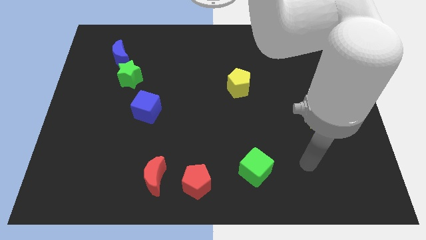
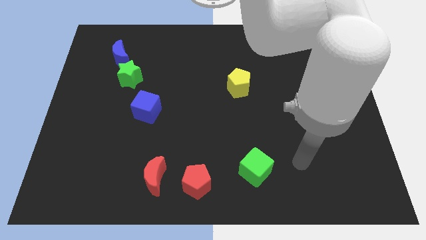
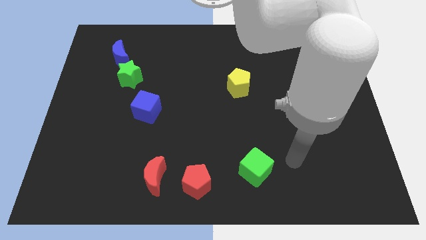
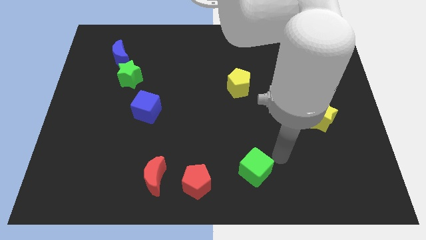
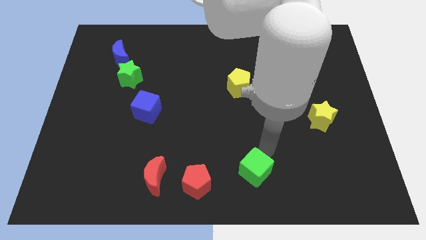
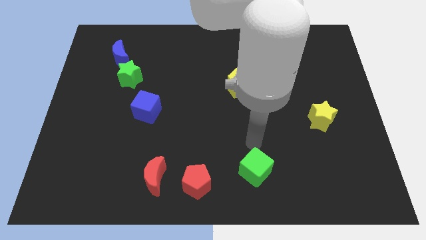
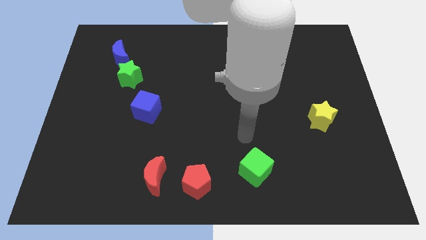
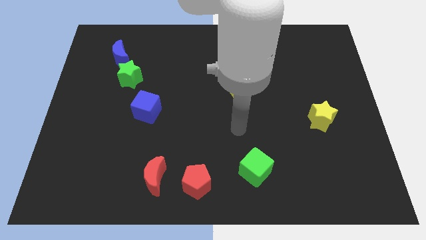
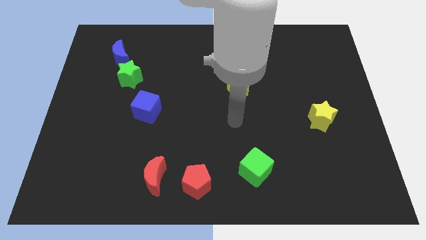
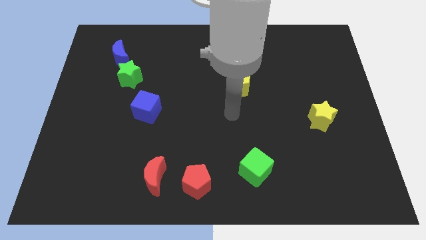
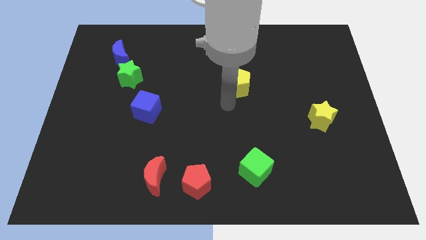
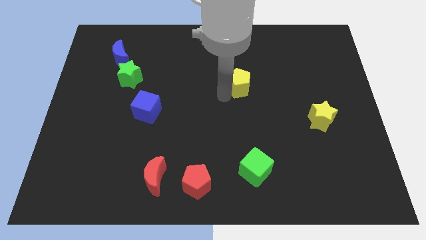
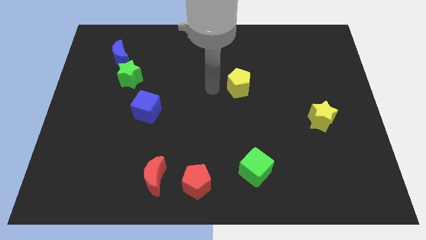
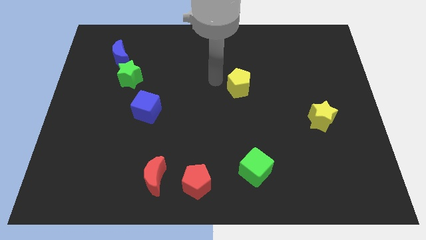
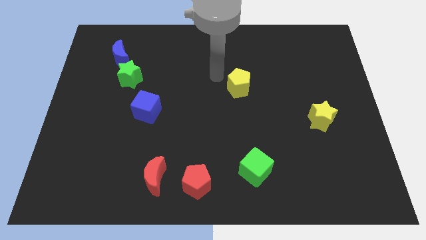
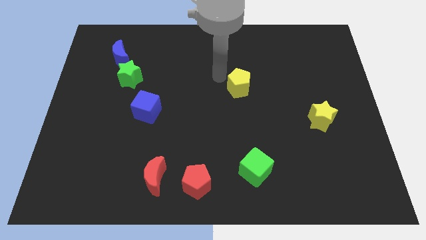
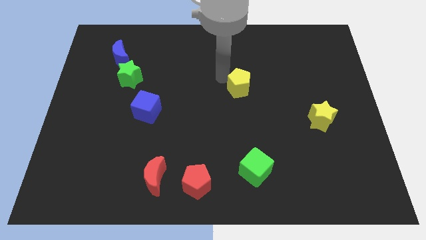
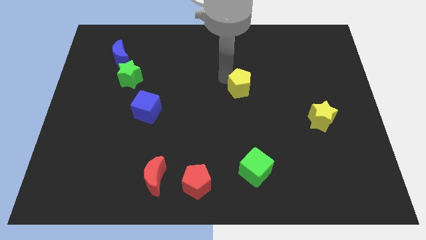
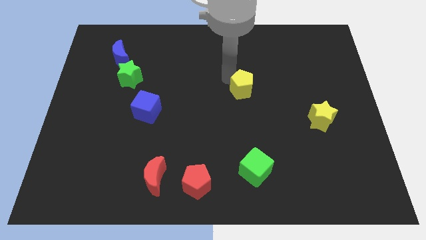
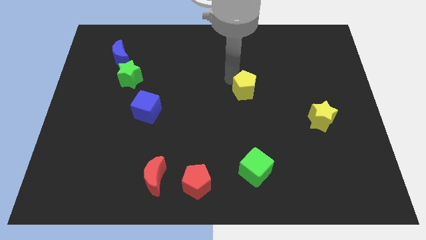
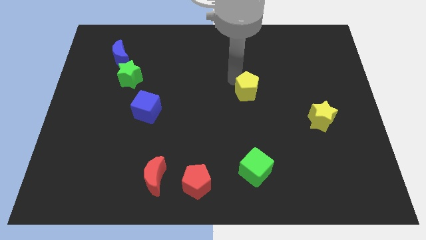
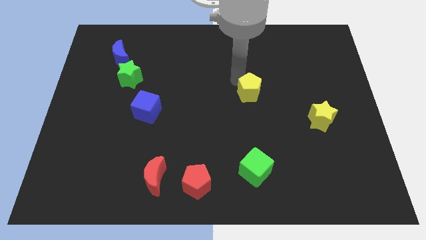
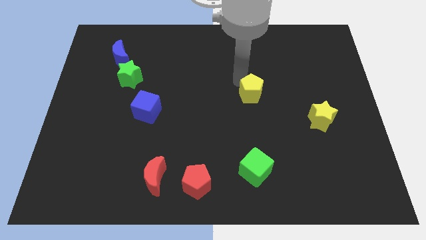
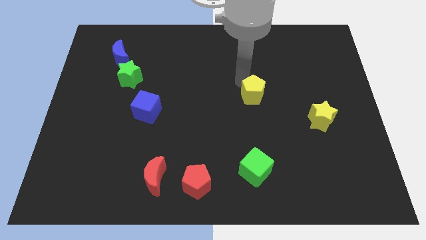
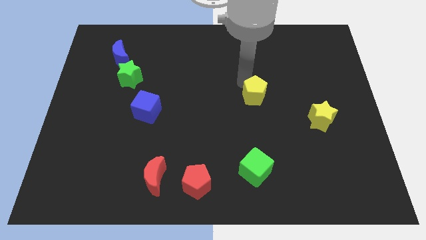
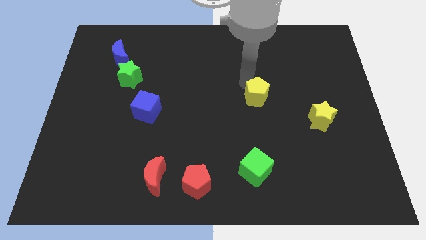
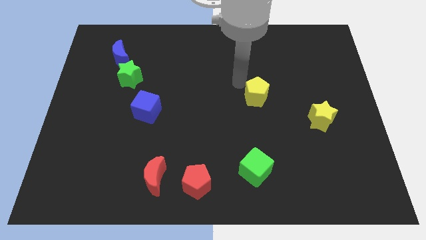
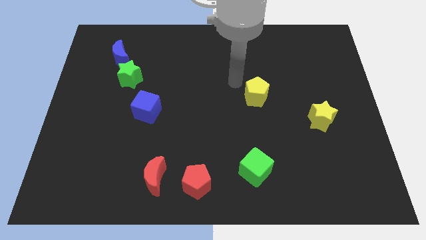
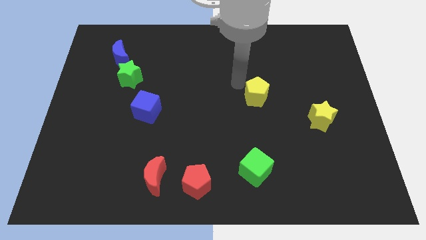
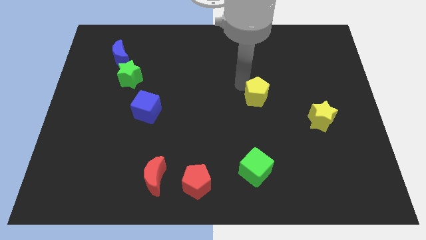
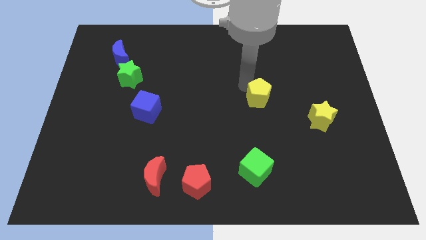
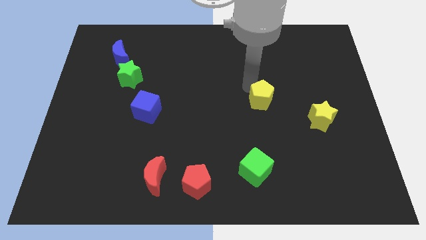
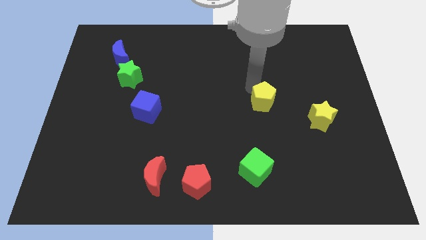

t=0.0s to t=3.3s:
slide the yellow pentagon a little downwards and to the right

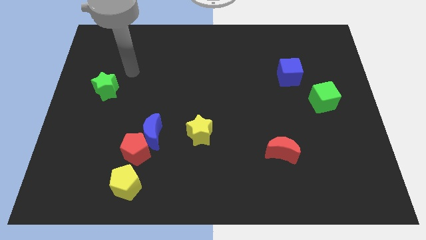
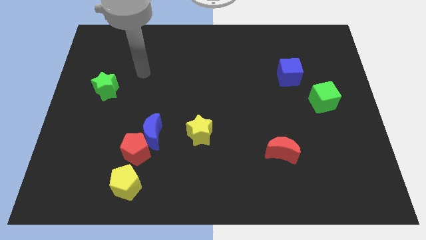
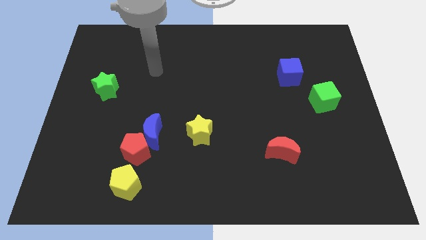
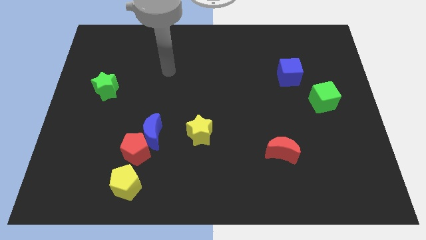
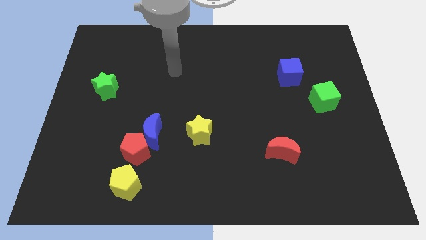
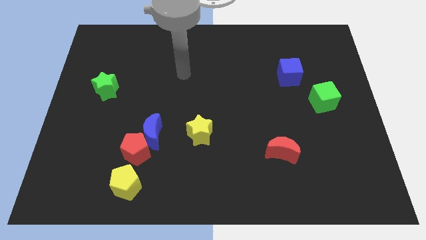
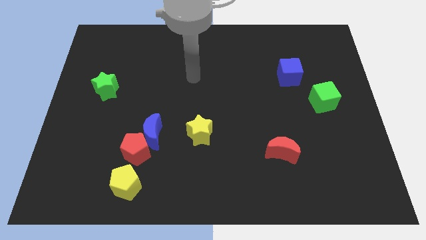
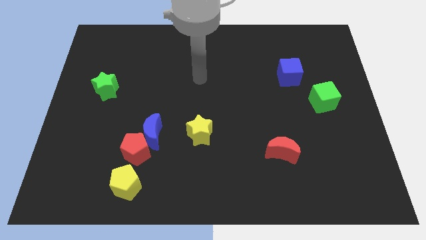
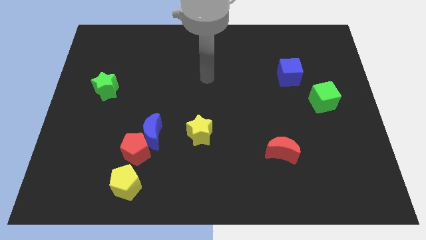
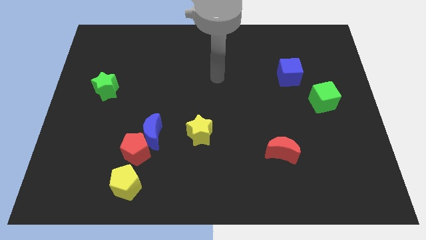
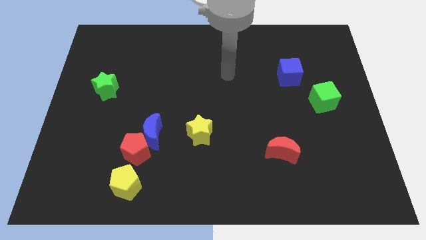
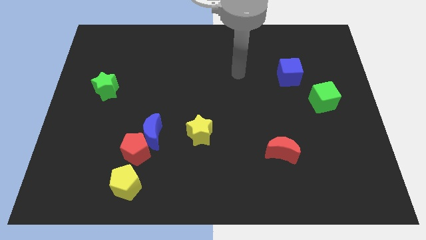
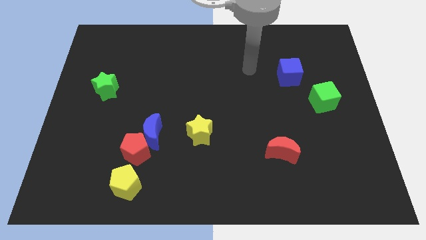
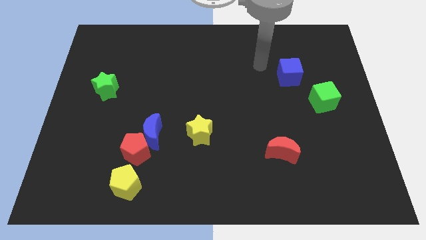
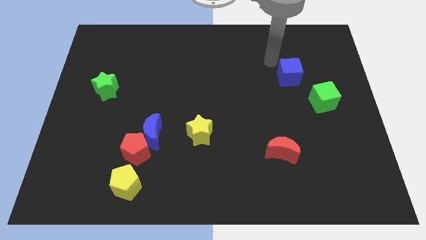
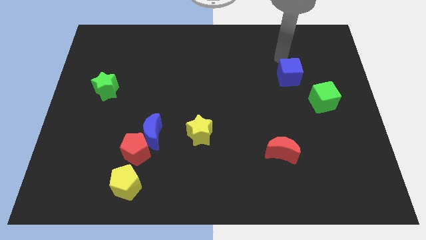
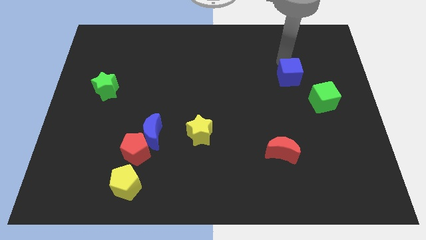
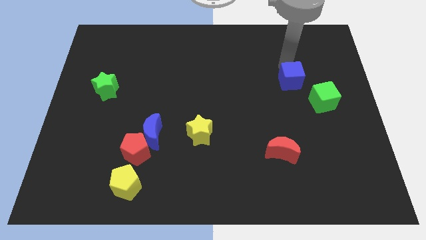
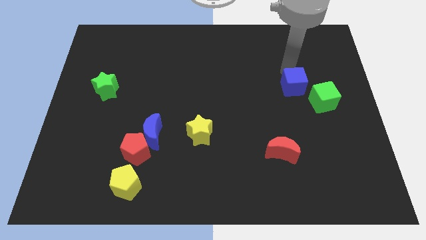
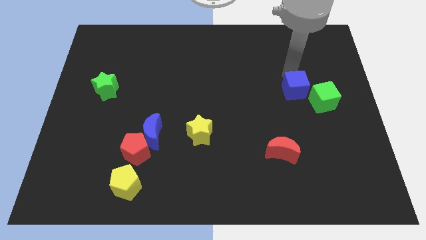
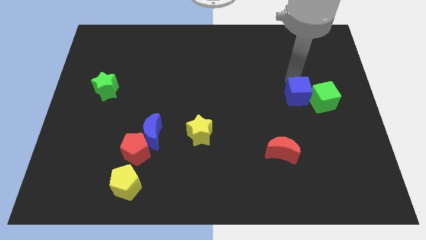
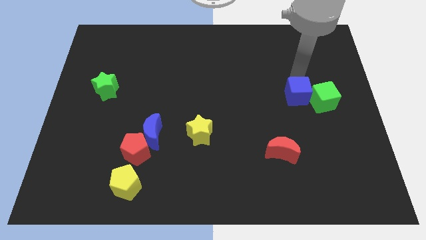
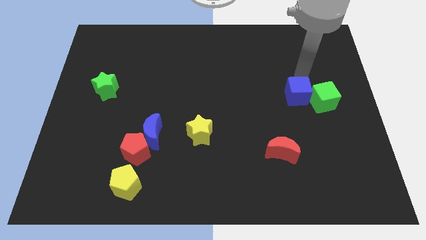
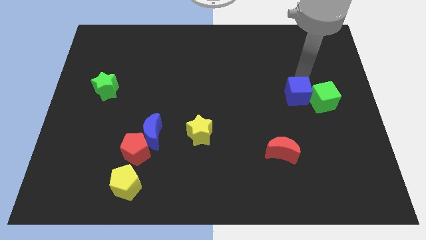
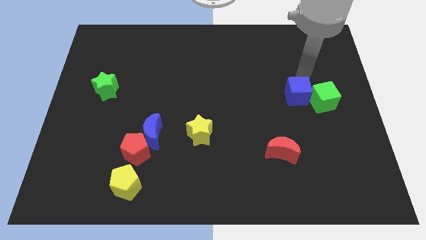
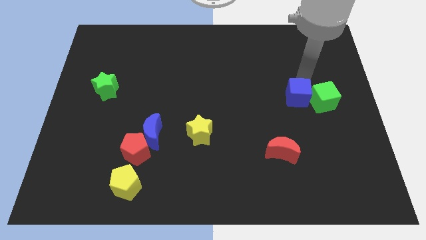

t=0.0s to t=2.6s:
push the blue cube downwards slightly

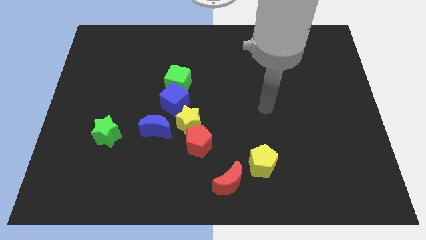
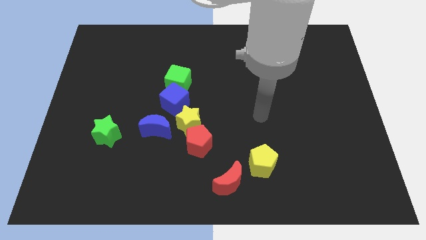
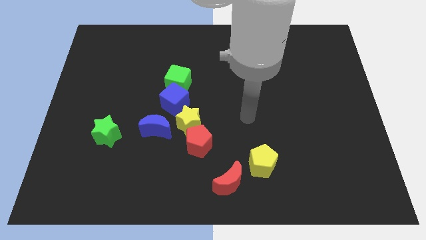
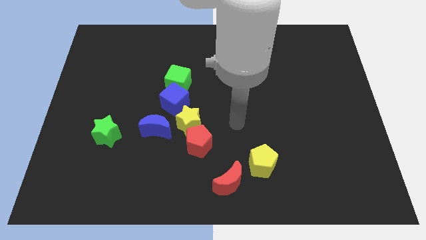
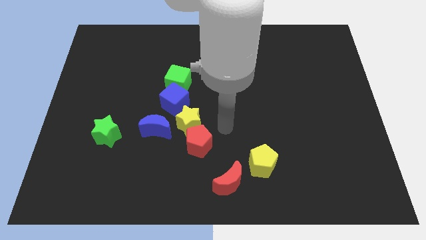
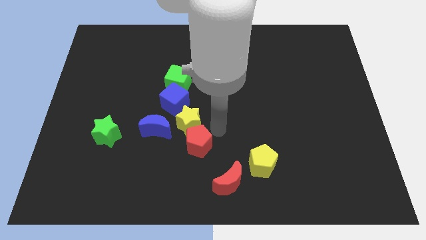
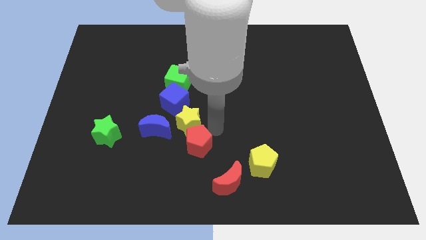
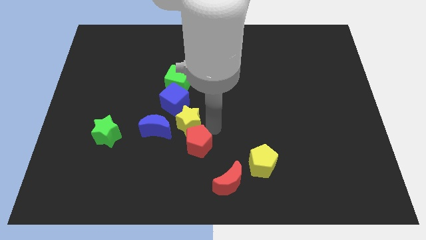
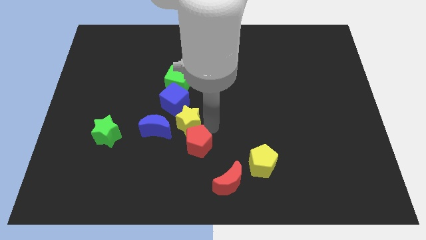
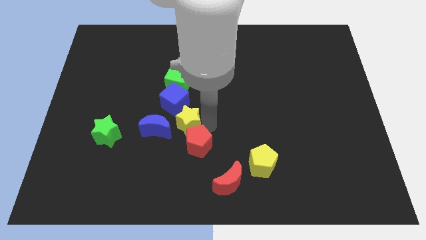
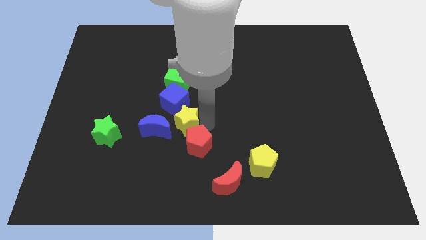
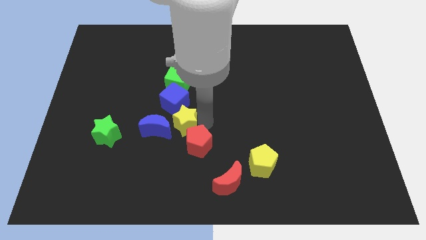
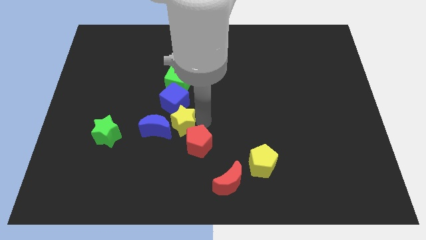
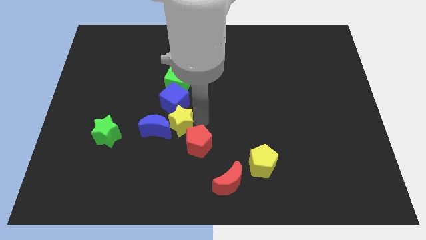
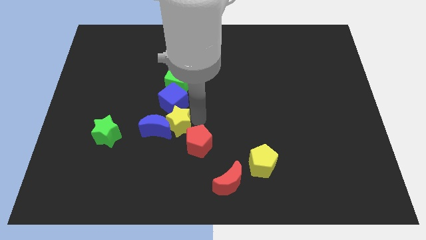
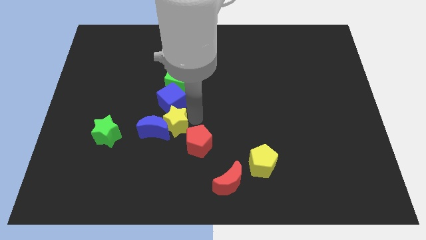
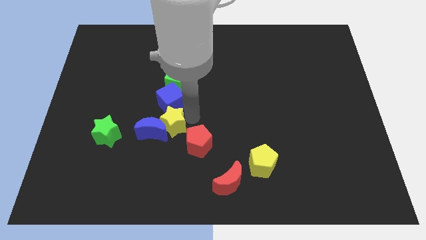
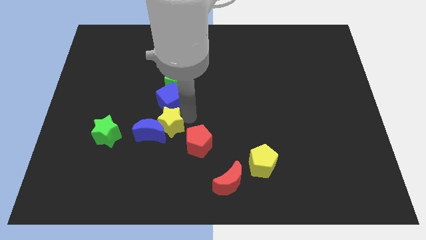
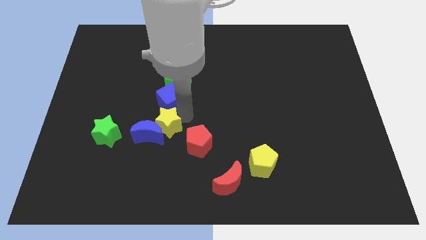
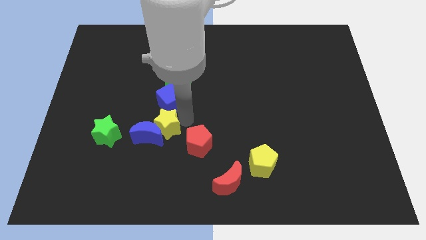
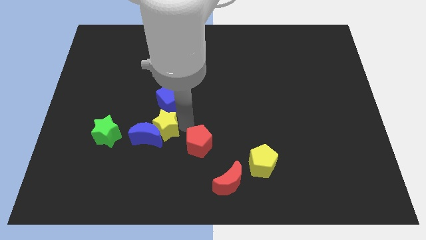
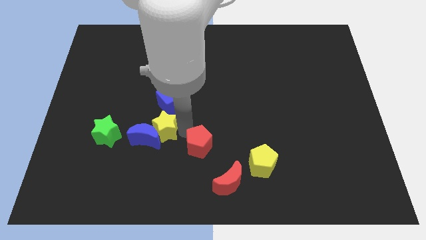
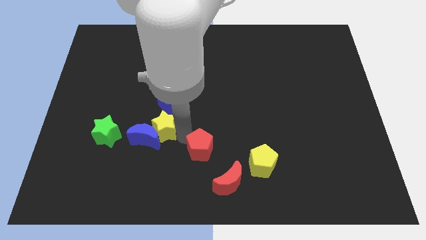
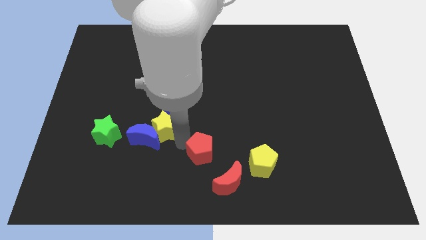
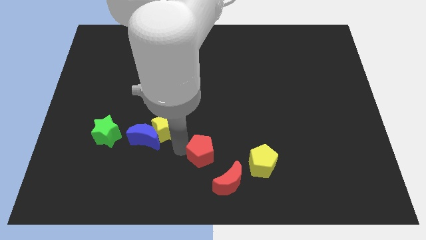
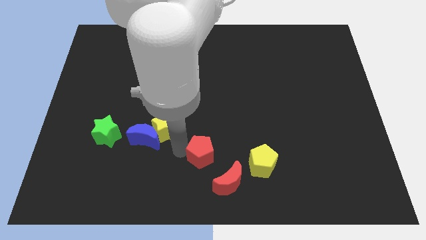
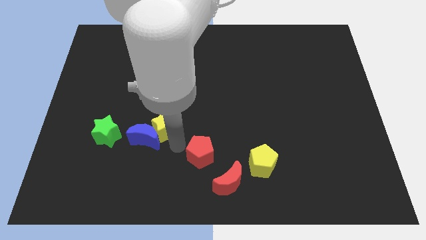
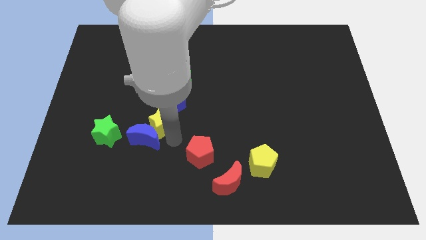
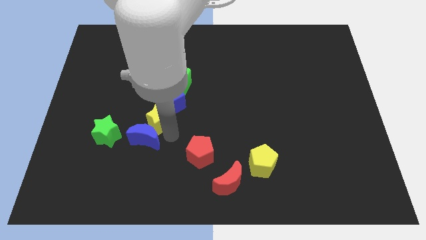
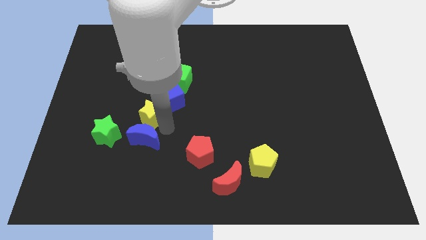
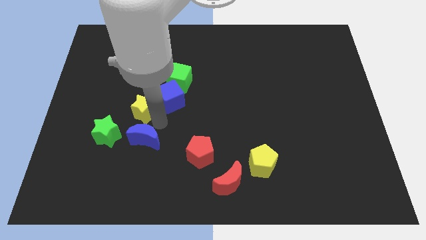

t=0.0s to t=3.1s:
slightly slide the yellow star upwards and then to the left
